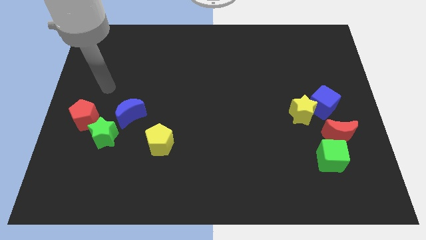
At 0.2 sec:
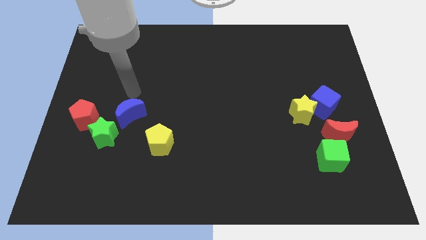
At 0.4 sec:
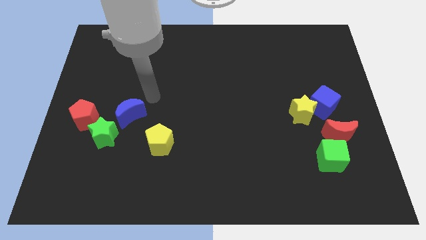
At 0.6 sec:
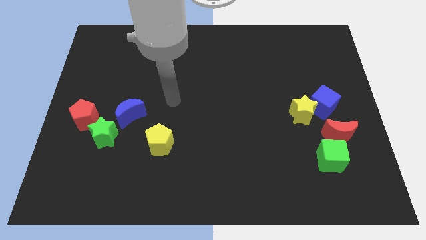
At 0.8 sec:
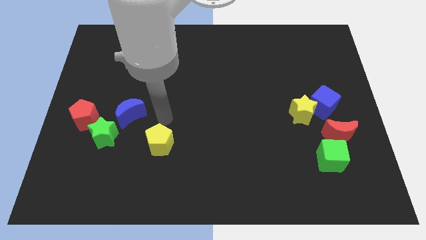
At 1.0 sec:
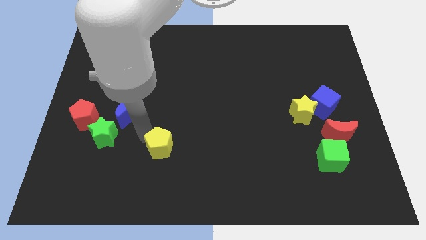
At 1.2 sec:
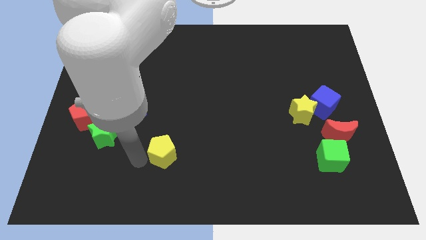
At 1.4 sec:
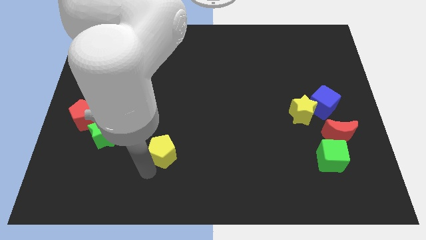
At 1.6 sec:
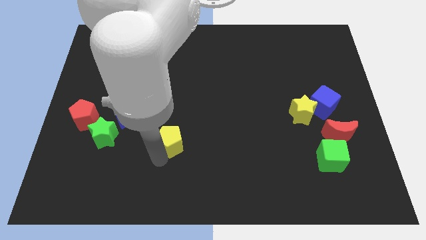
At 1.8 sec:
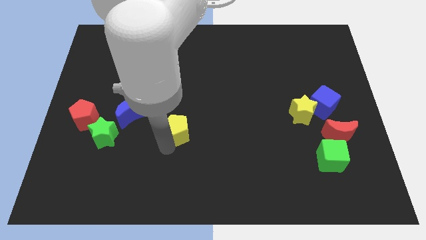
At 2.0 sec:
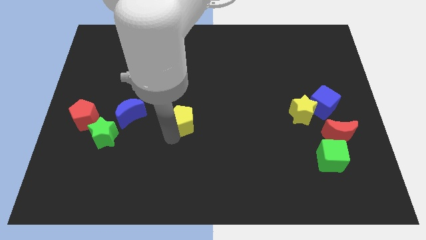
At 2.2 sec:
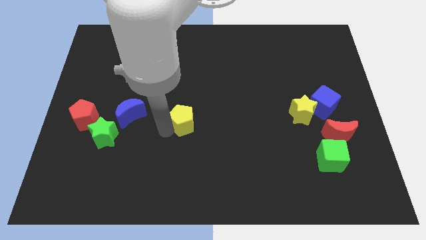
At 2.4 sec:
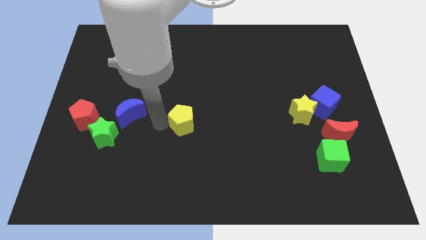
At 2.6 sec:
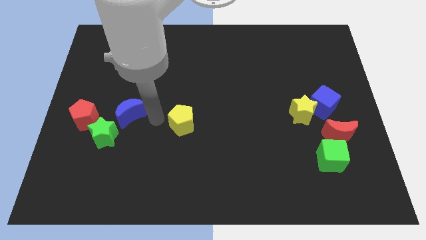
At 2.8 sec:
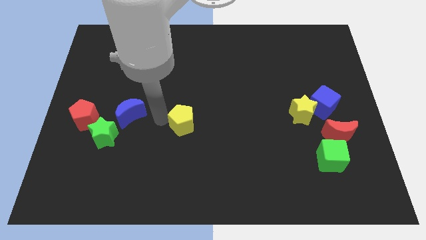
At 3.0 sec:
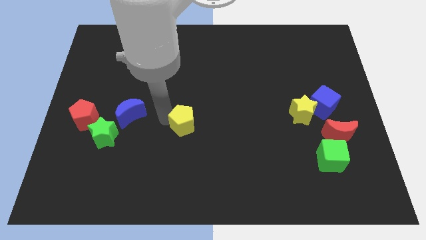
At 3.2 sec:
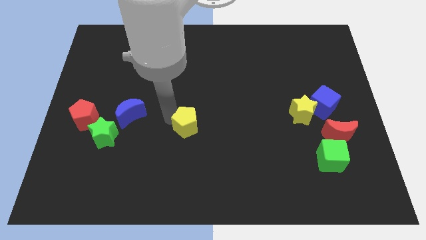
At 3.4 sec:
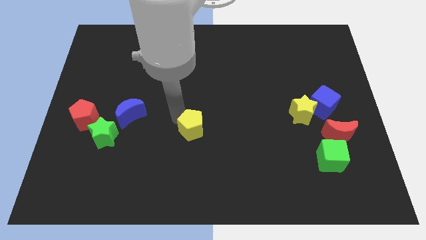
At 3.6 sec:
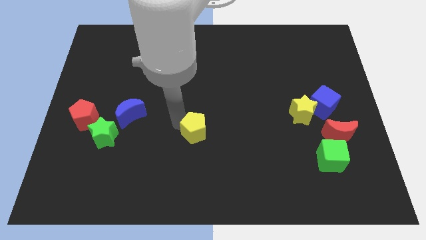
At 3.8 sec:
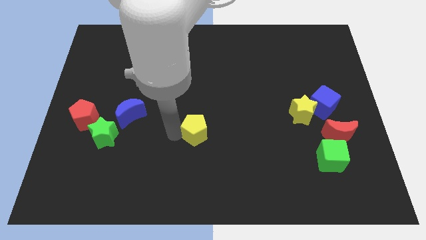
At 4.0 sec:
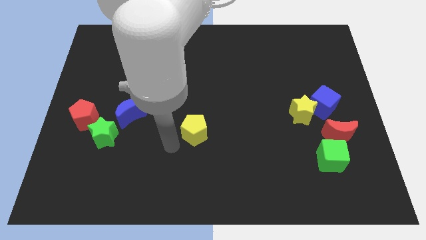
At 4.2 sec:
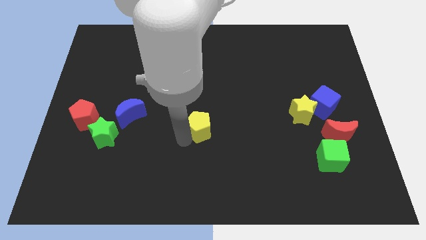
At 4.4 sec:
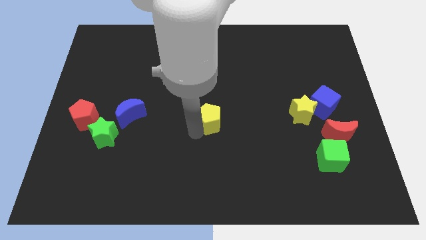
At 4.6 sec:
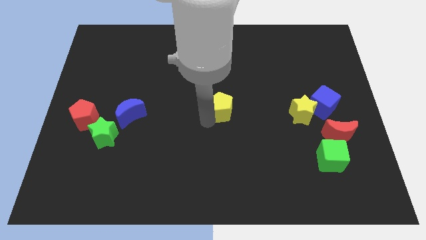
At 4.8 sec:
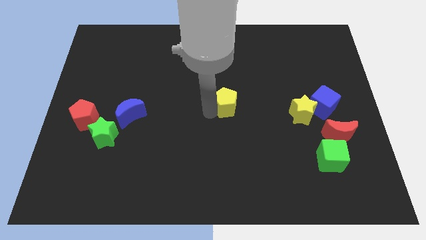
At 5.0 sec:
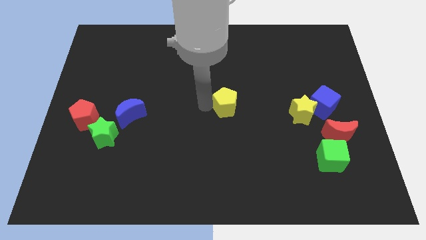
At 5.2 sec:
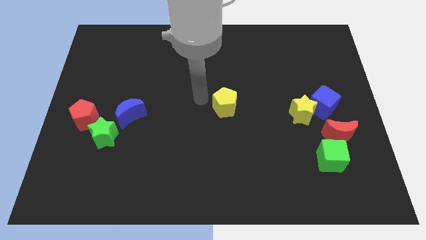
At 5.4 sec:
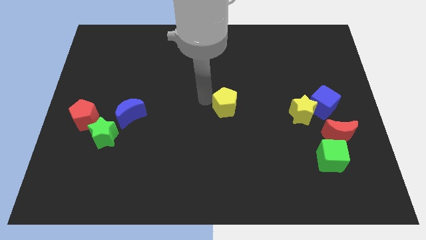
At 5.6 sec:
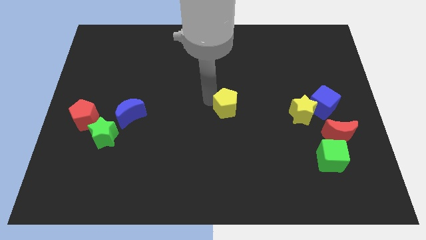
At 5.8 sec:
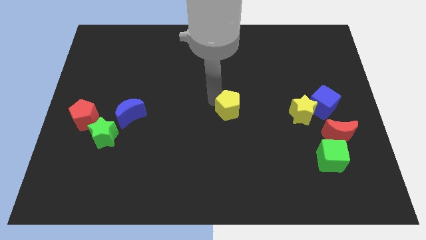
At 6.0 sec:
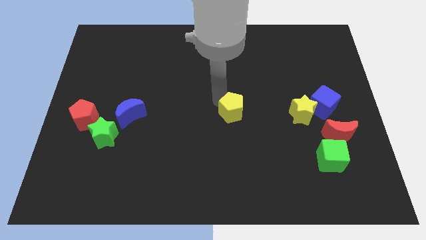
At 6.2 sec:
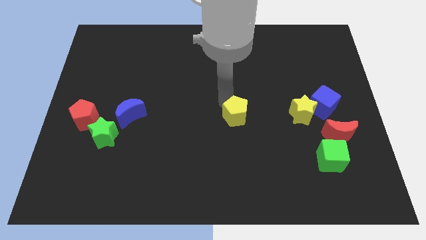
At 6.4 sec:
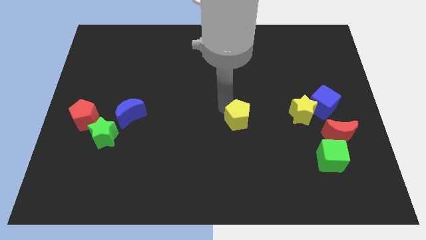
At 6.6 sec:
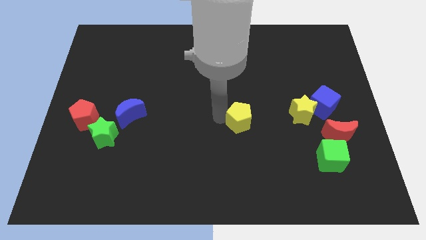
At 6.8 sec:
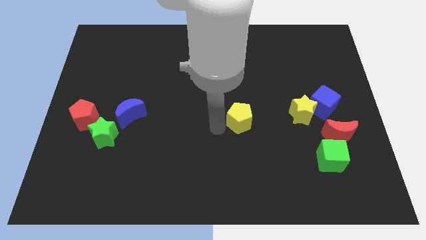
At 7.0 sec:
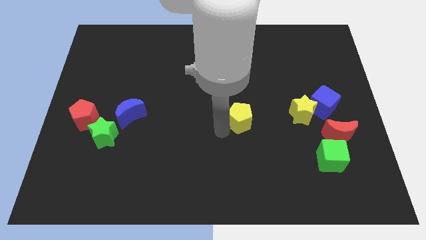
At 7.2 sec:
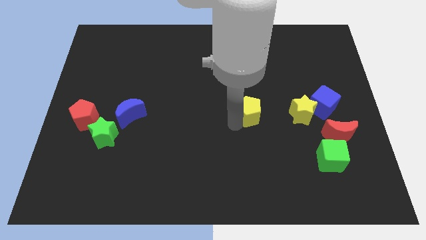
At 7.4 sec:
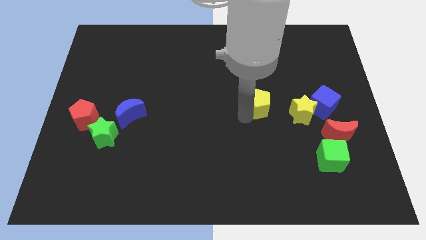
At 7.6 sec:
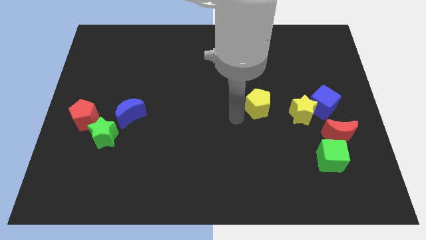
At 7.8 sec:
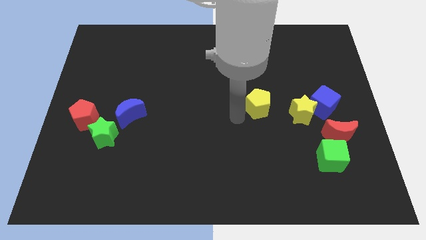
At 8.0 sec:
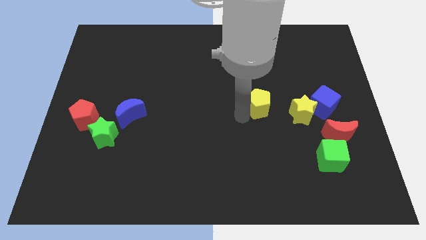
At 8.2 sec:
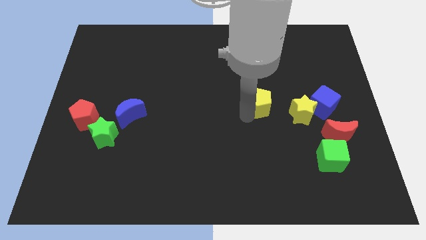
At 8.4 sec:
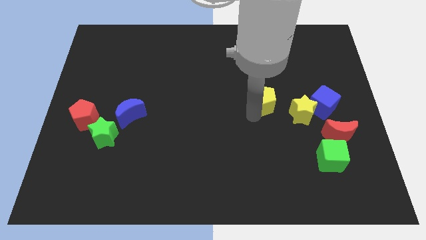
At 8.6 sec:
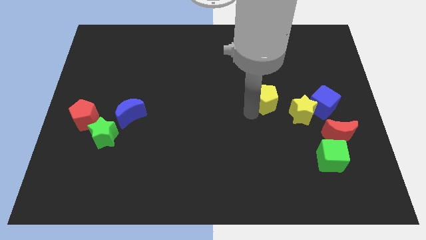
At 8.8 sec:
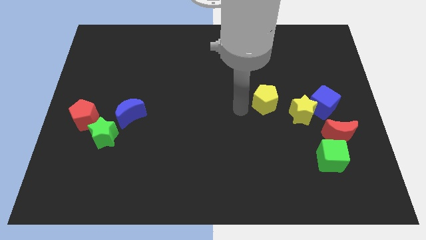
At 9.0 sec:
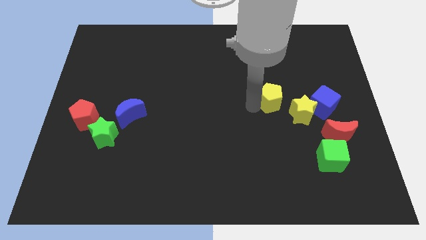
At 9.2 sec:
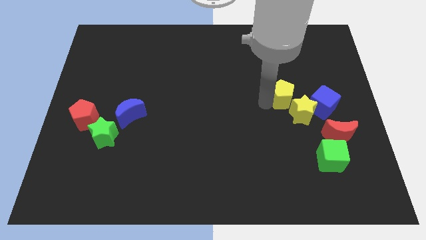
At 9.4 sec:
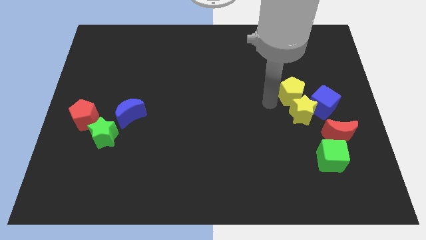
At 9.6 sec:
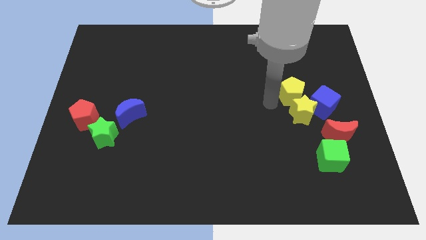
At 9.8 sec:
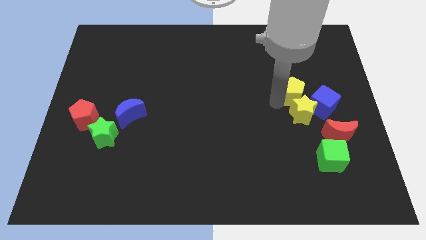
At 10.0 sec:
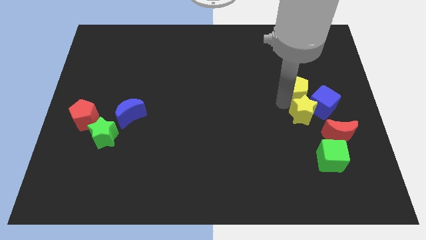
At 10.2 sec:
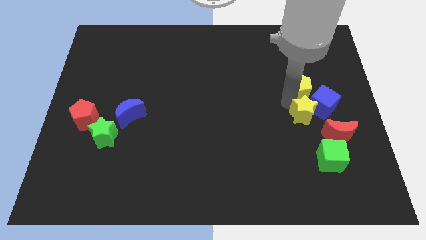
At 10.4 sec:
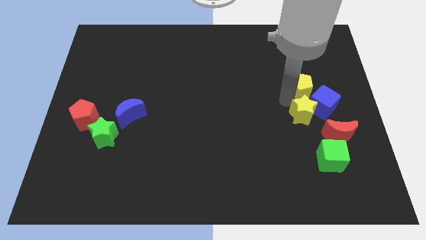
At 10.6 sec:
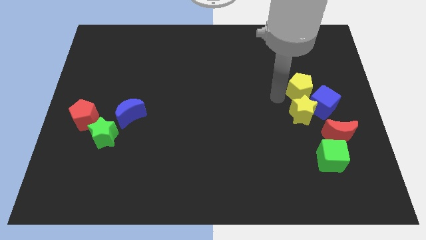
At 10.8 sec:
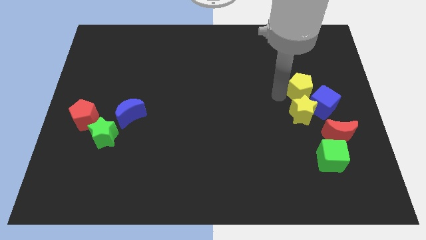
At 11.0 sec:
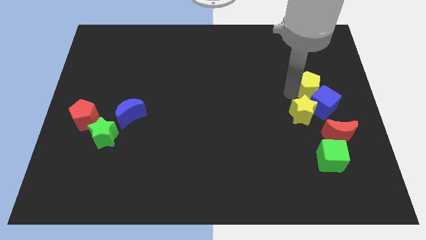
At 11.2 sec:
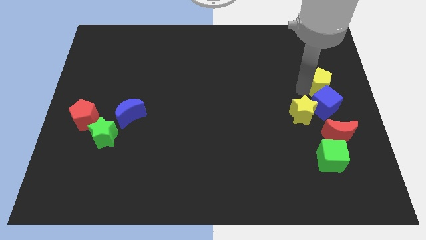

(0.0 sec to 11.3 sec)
push the yellow pentagon to the right side of the board
